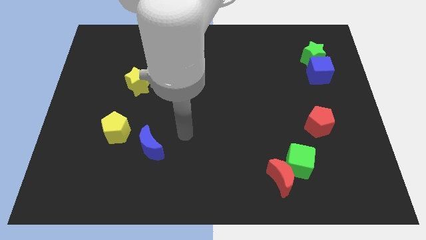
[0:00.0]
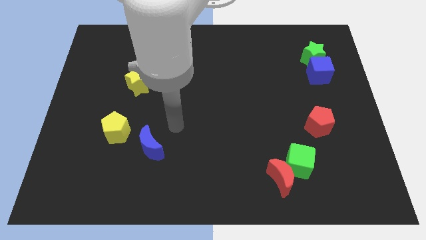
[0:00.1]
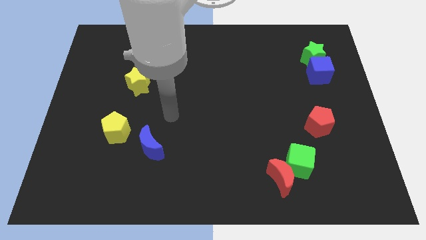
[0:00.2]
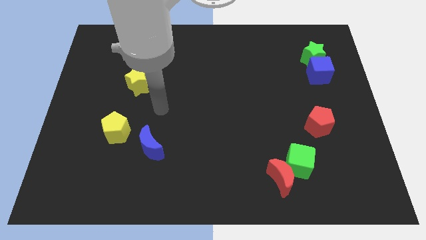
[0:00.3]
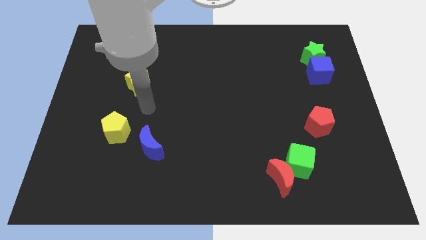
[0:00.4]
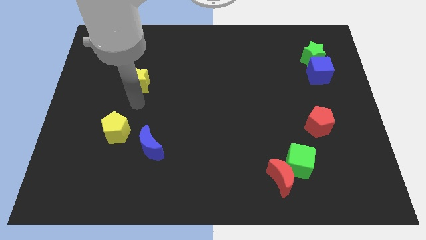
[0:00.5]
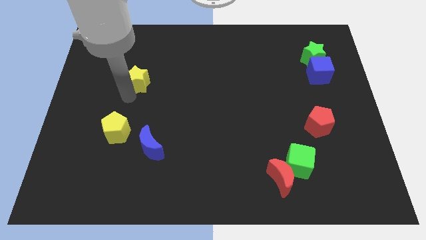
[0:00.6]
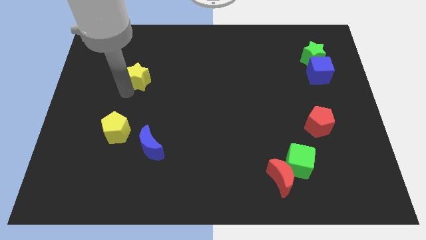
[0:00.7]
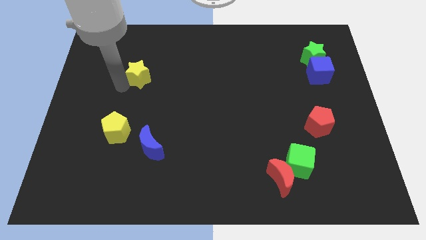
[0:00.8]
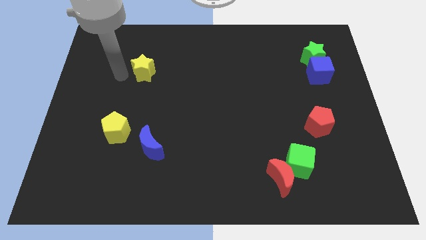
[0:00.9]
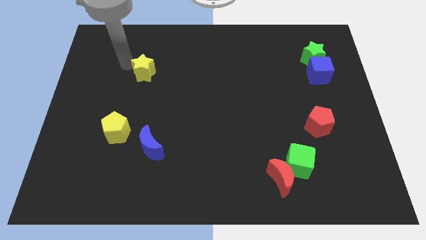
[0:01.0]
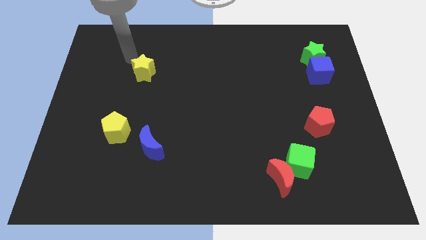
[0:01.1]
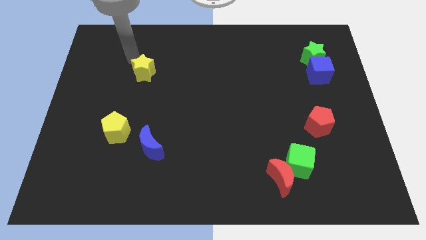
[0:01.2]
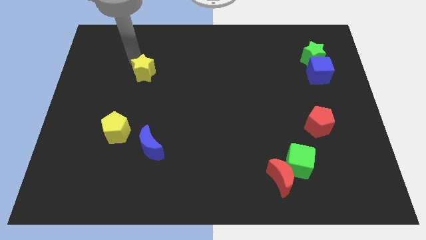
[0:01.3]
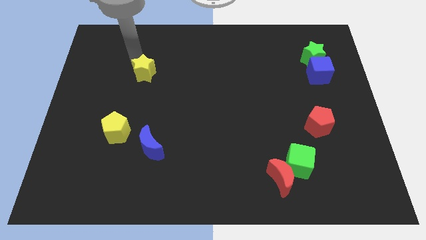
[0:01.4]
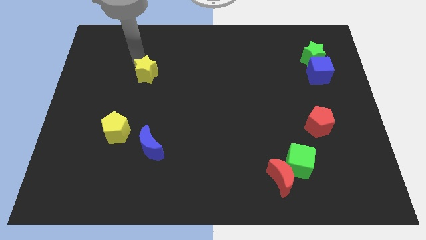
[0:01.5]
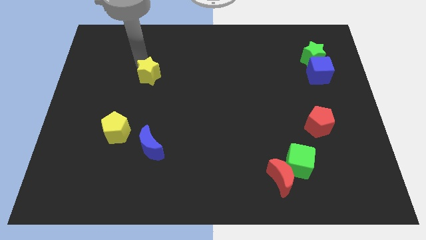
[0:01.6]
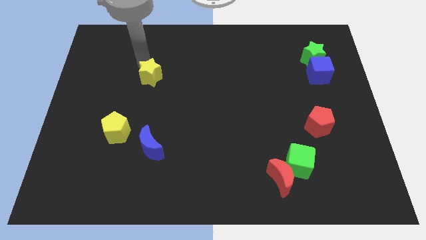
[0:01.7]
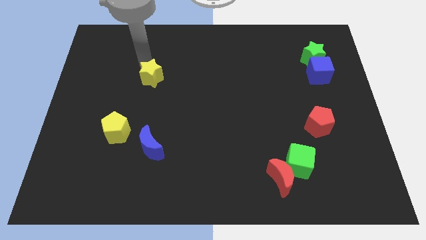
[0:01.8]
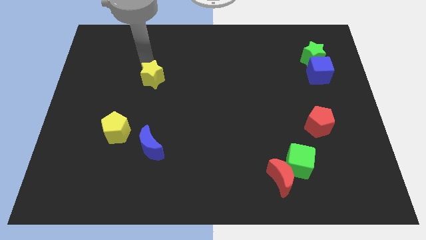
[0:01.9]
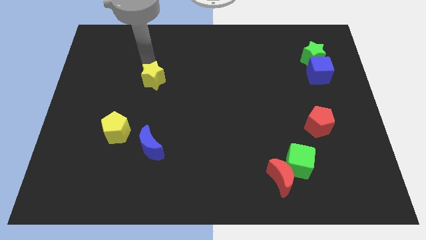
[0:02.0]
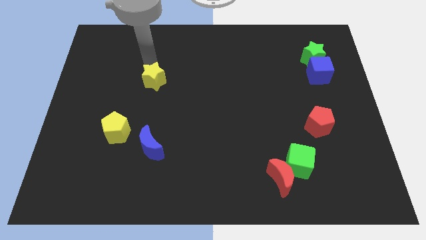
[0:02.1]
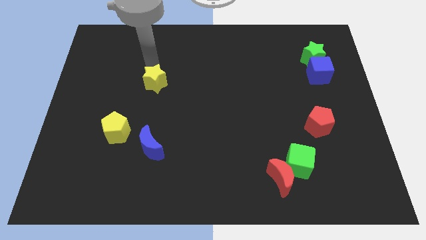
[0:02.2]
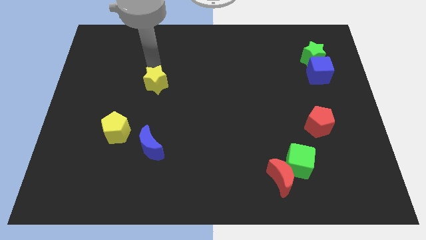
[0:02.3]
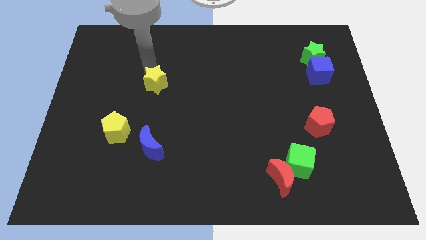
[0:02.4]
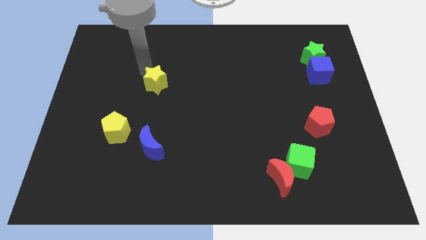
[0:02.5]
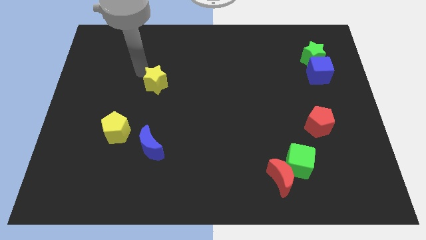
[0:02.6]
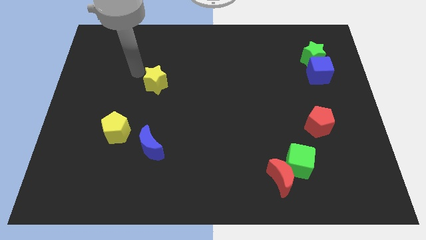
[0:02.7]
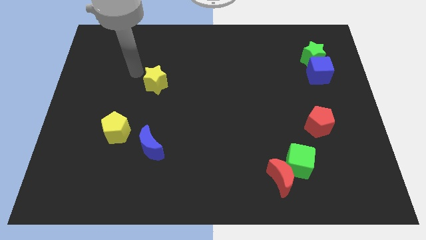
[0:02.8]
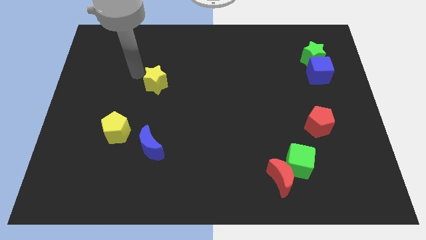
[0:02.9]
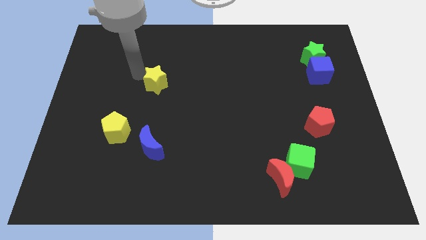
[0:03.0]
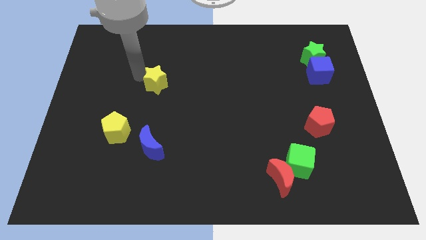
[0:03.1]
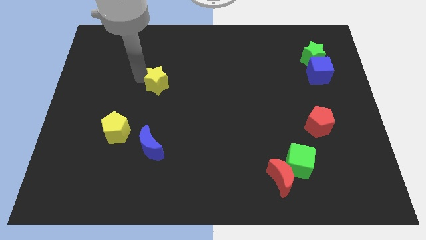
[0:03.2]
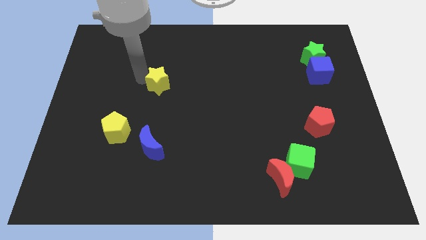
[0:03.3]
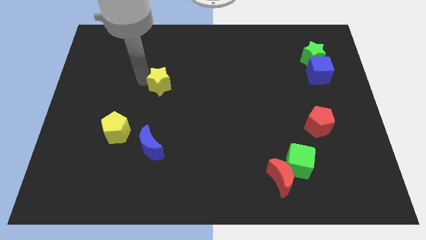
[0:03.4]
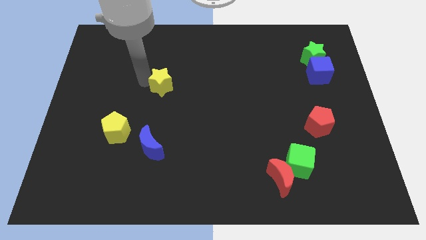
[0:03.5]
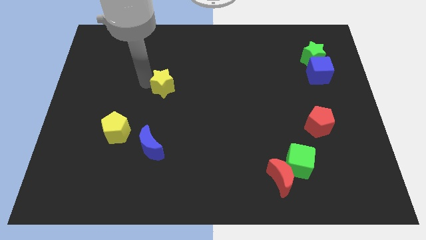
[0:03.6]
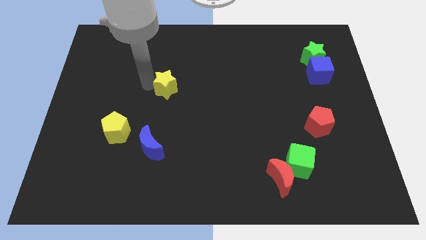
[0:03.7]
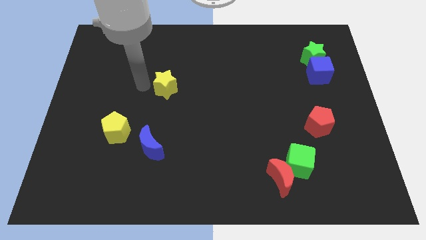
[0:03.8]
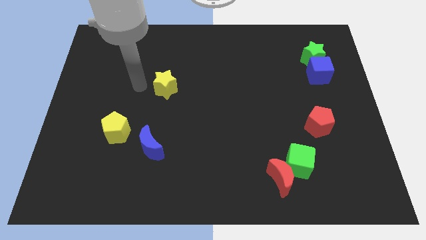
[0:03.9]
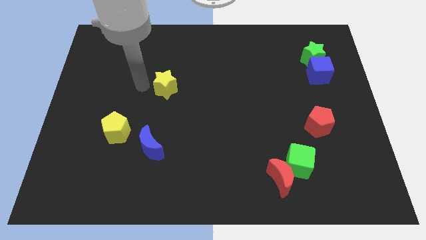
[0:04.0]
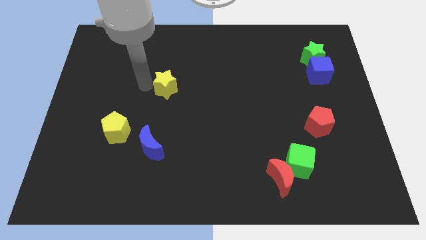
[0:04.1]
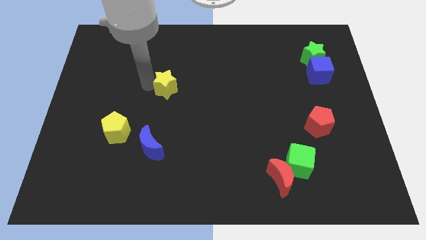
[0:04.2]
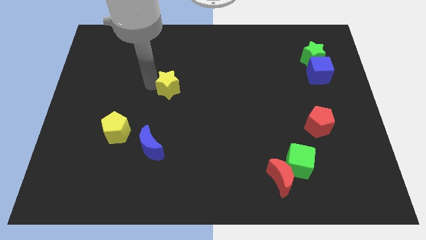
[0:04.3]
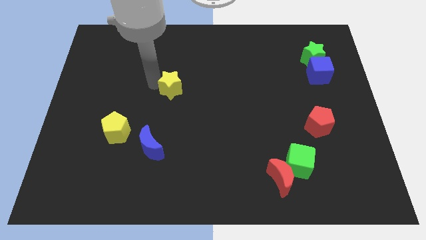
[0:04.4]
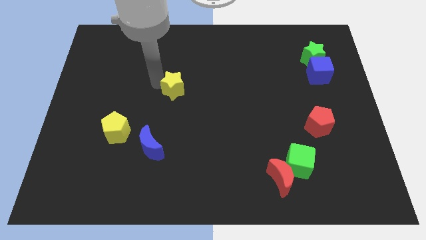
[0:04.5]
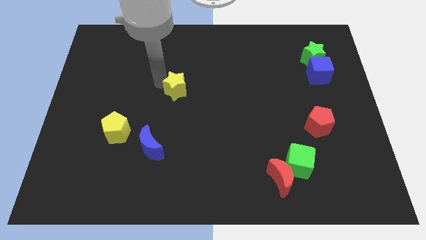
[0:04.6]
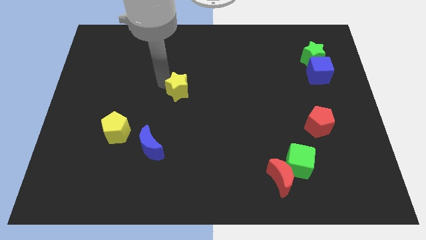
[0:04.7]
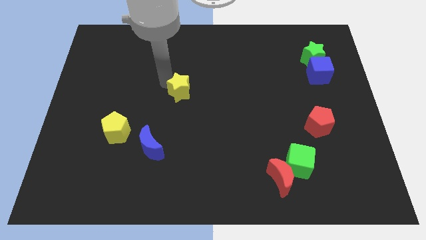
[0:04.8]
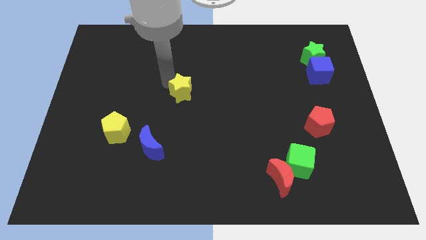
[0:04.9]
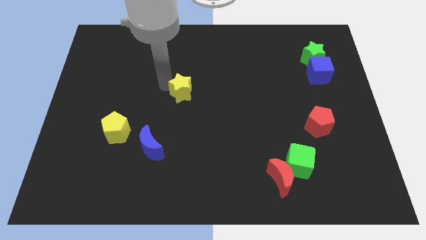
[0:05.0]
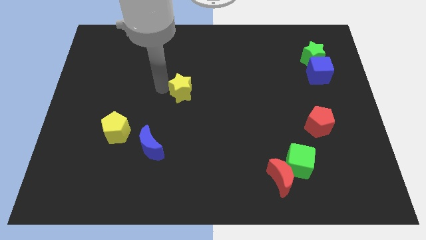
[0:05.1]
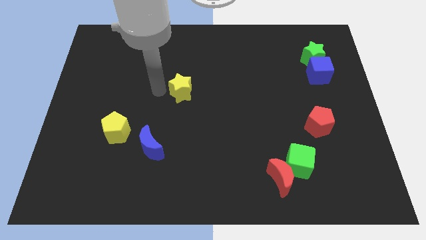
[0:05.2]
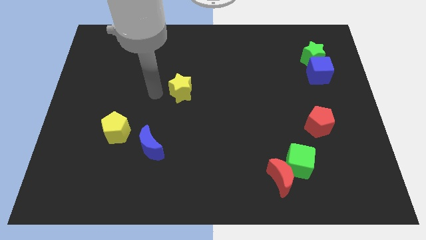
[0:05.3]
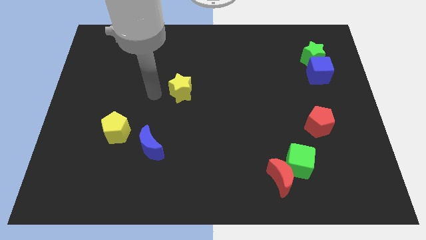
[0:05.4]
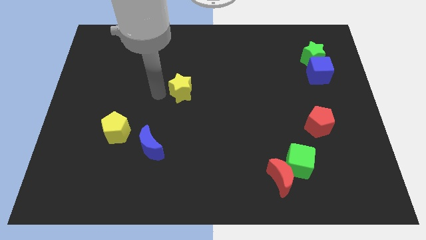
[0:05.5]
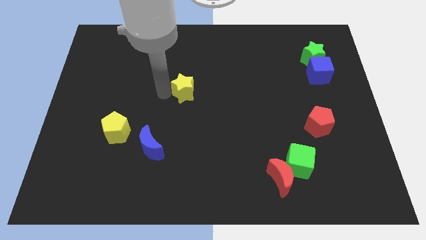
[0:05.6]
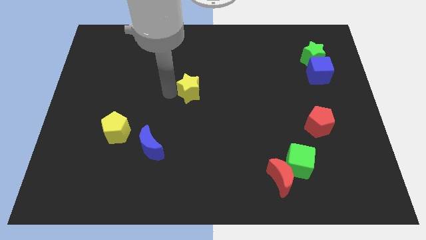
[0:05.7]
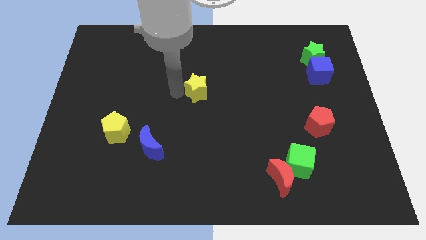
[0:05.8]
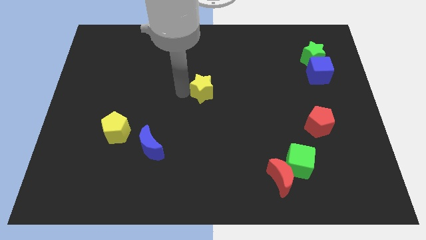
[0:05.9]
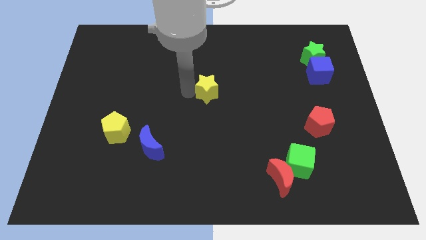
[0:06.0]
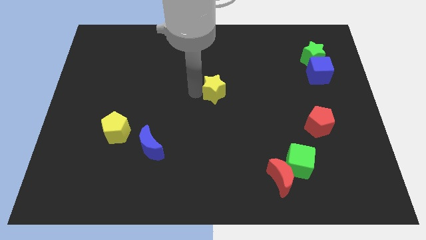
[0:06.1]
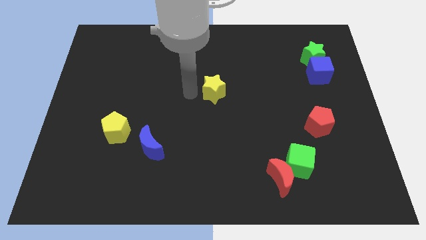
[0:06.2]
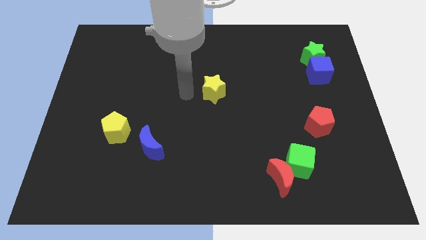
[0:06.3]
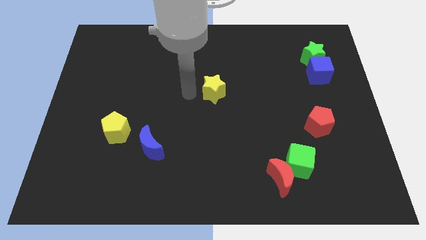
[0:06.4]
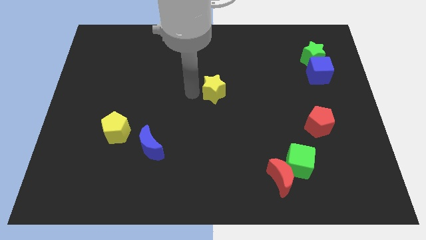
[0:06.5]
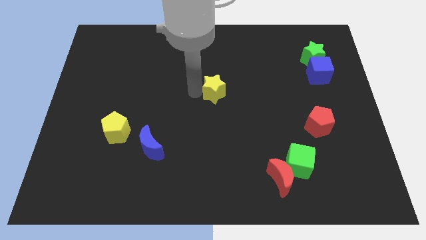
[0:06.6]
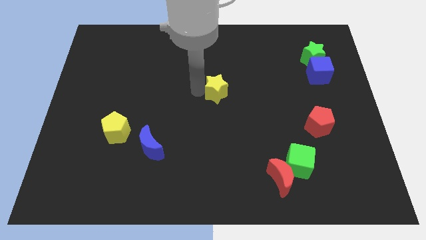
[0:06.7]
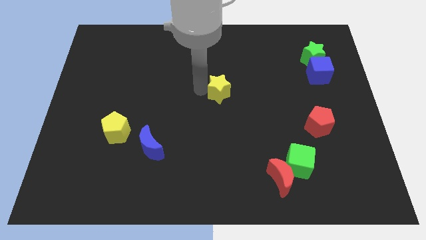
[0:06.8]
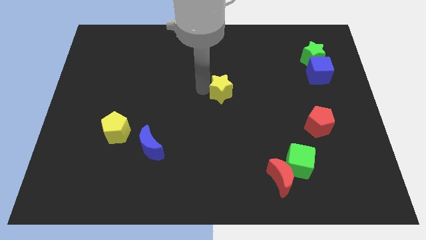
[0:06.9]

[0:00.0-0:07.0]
push the yellow star right

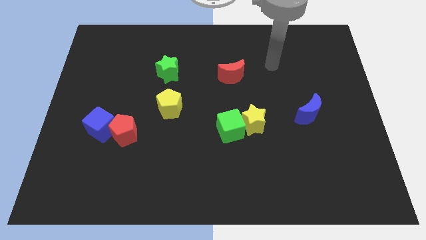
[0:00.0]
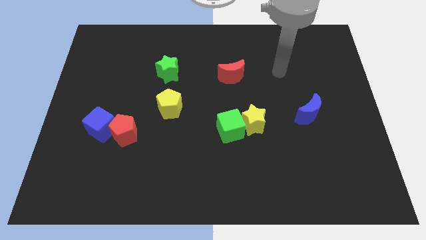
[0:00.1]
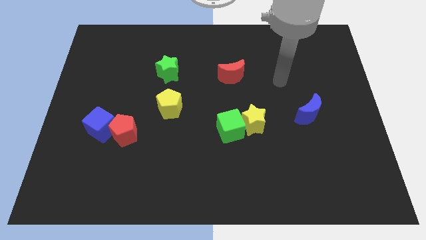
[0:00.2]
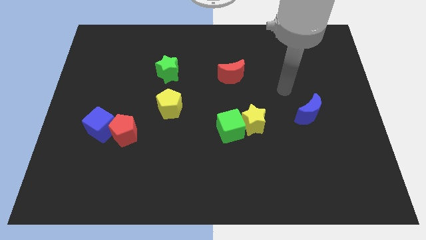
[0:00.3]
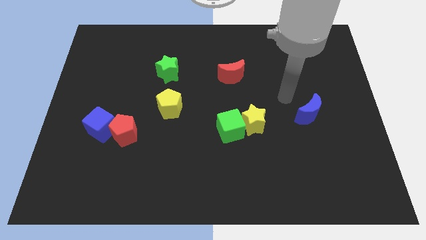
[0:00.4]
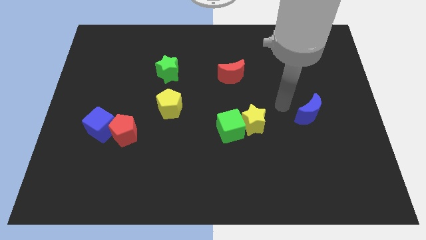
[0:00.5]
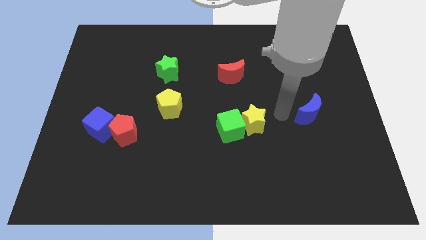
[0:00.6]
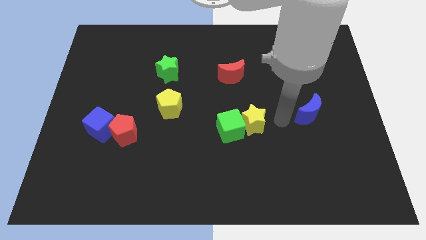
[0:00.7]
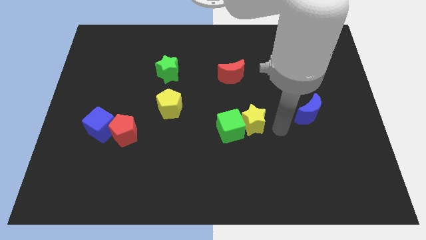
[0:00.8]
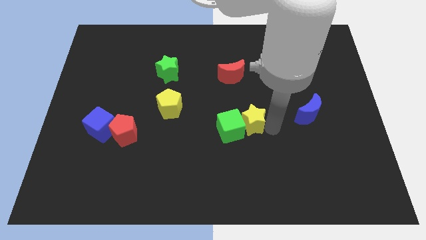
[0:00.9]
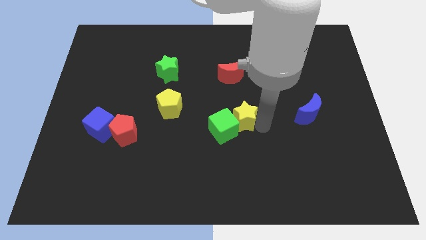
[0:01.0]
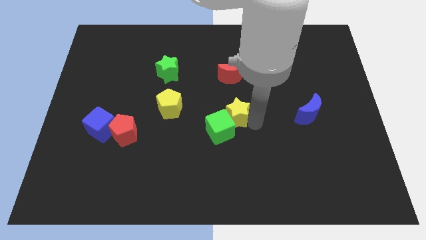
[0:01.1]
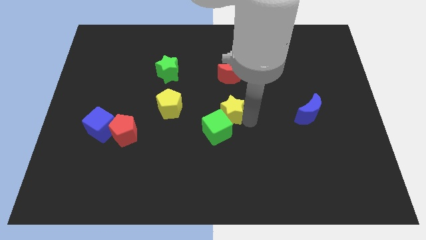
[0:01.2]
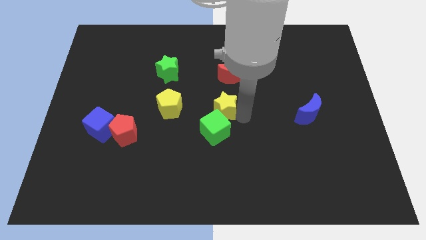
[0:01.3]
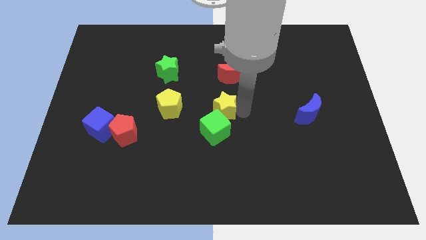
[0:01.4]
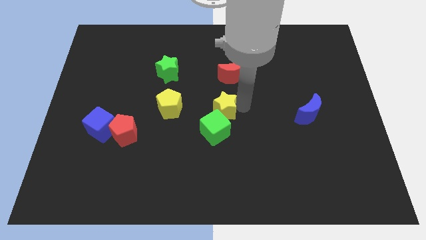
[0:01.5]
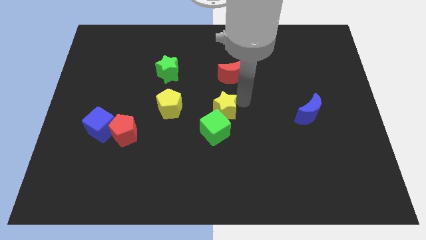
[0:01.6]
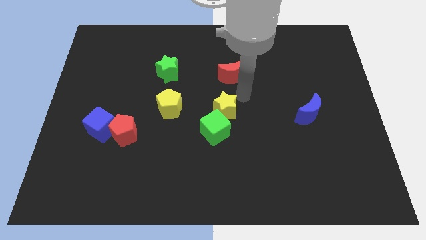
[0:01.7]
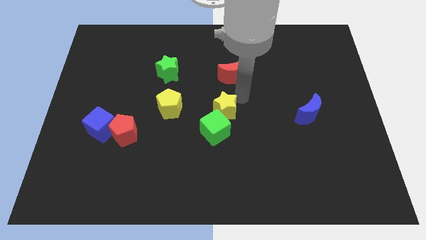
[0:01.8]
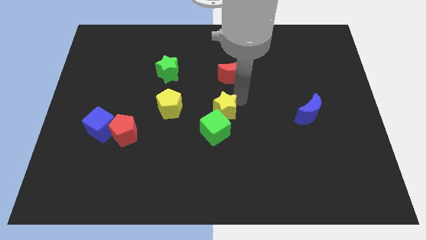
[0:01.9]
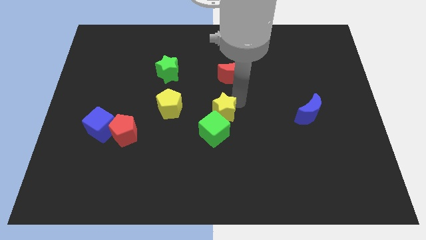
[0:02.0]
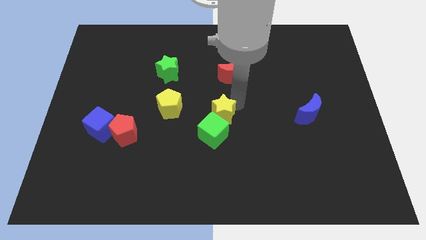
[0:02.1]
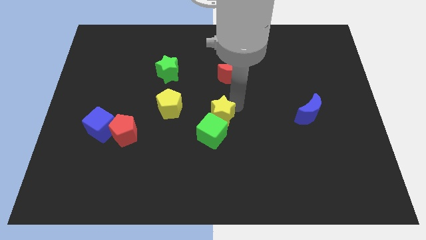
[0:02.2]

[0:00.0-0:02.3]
push the yellow star left a bit
